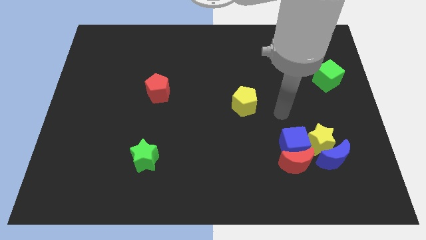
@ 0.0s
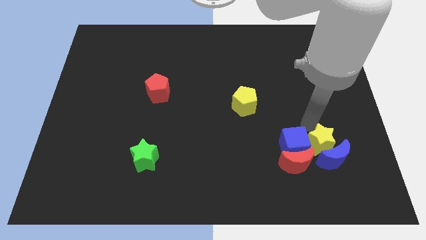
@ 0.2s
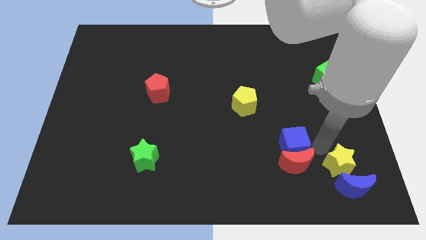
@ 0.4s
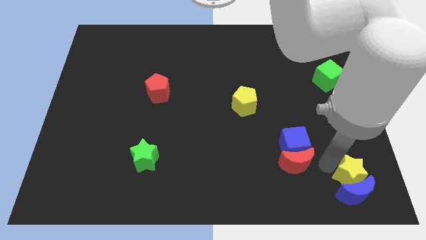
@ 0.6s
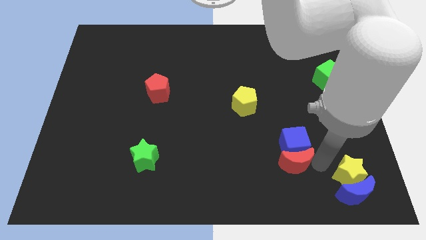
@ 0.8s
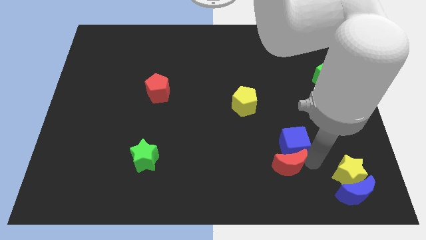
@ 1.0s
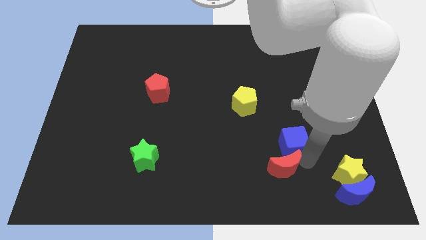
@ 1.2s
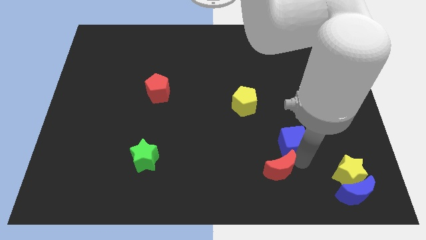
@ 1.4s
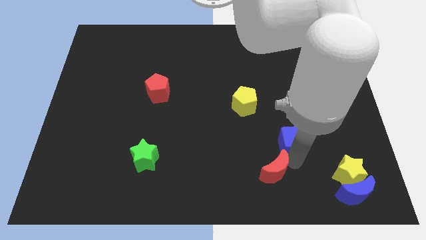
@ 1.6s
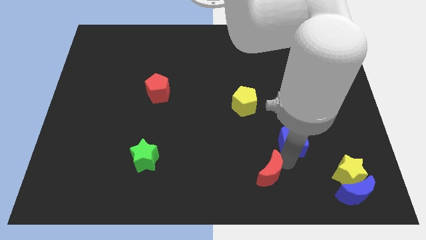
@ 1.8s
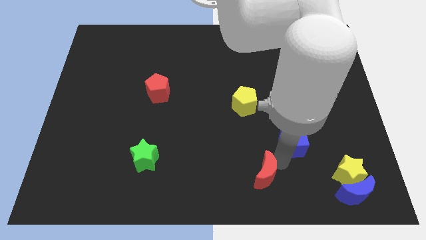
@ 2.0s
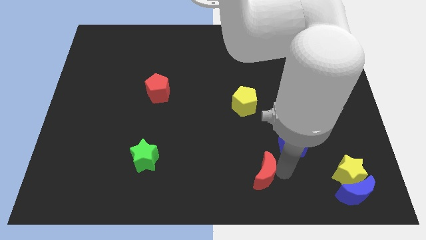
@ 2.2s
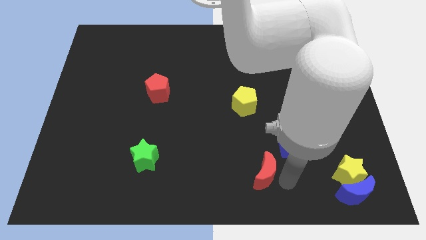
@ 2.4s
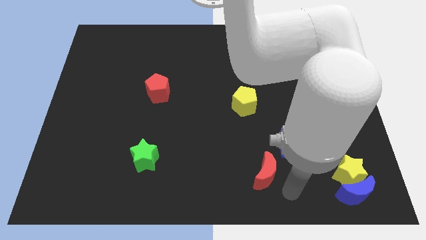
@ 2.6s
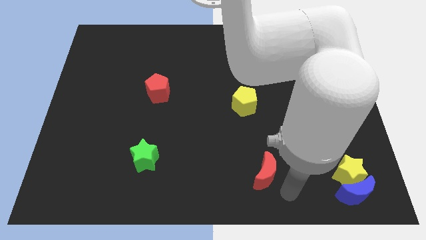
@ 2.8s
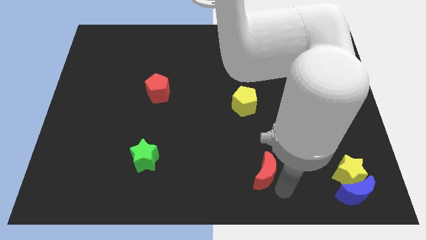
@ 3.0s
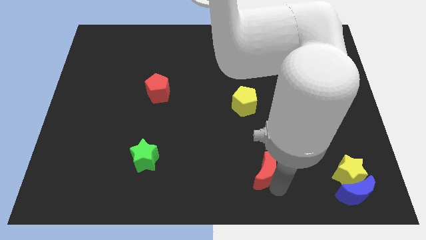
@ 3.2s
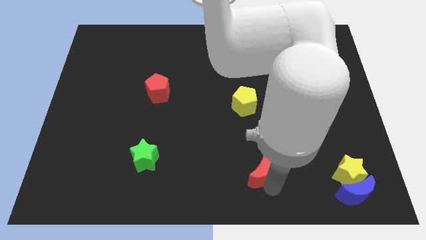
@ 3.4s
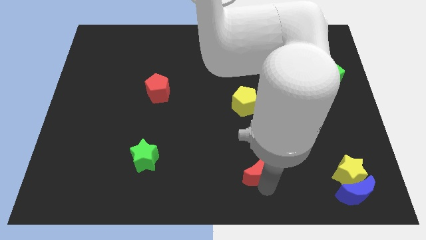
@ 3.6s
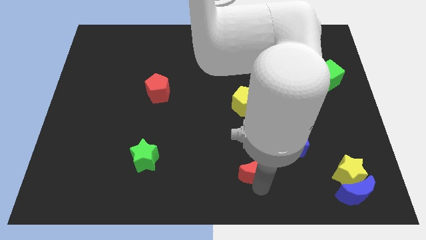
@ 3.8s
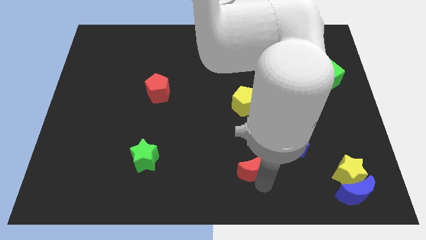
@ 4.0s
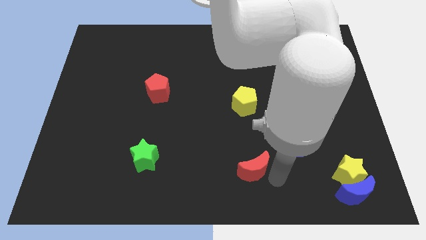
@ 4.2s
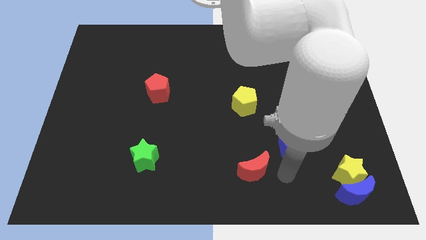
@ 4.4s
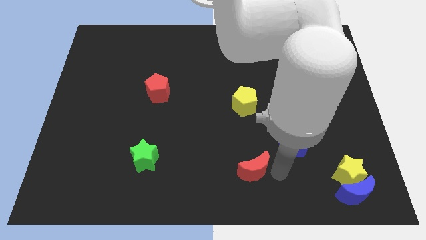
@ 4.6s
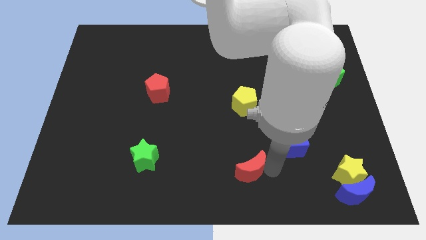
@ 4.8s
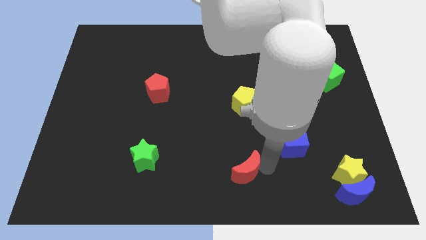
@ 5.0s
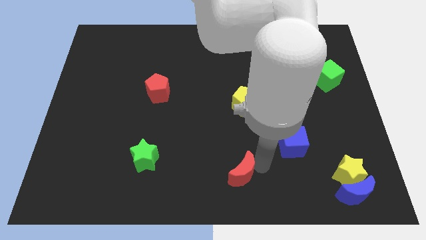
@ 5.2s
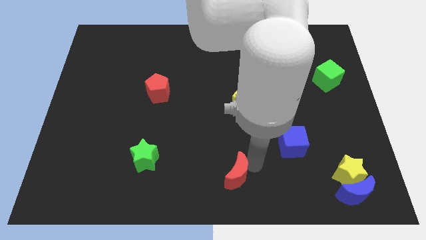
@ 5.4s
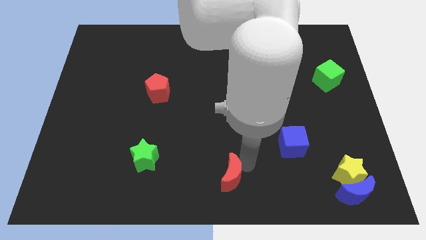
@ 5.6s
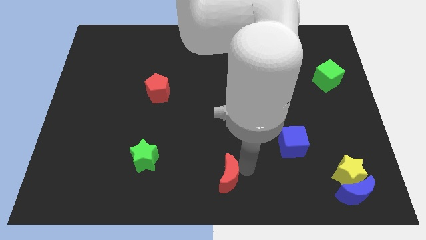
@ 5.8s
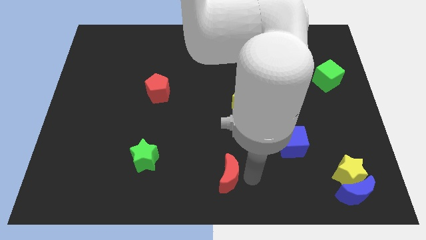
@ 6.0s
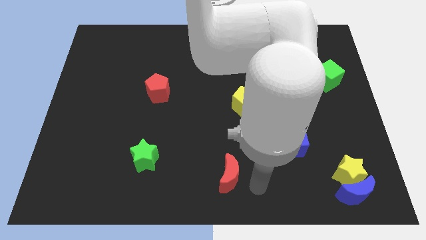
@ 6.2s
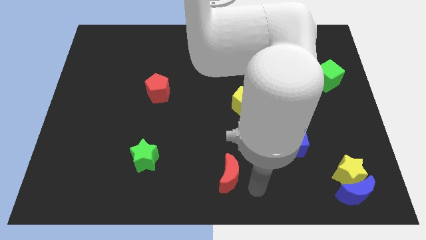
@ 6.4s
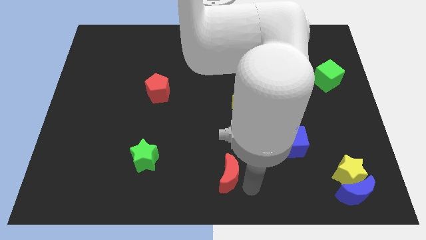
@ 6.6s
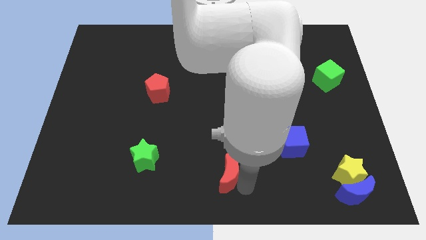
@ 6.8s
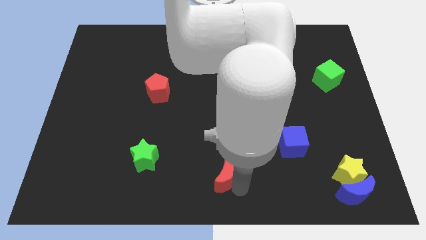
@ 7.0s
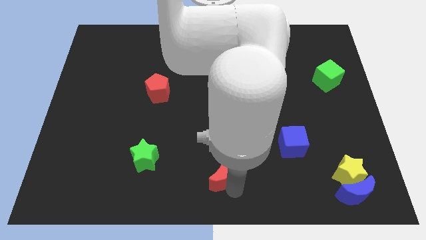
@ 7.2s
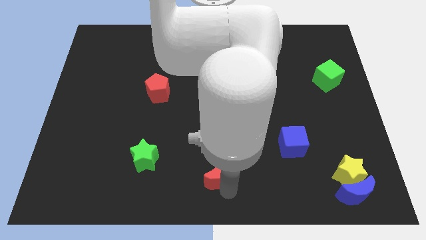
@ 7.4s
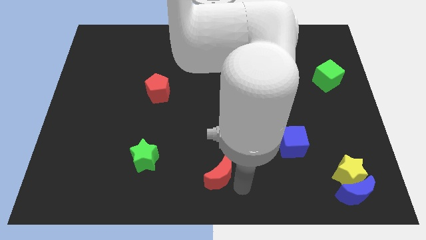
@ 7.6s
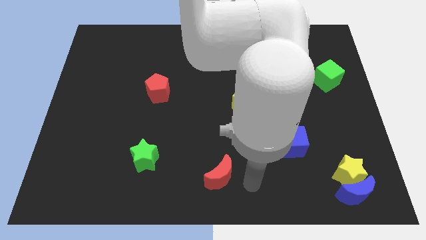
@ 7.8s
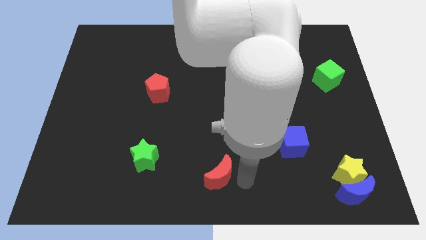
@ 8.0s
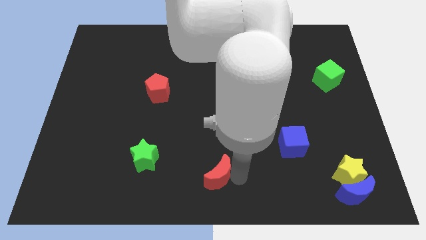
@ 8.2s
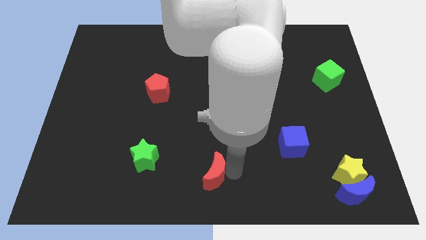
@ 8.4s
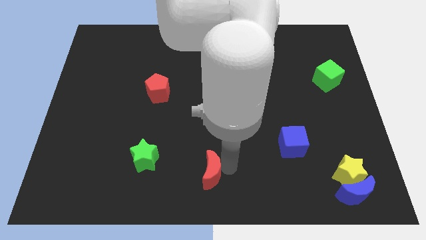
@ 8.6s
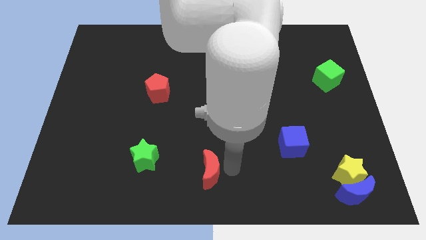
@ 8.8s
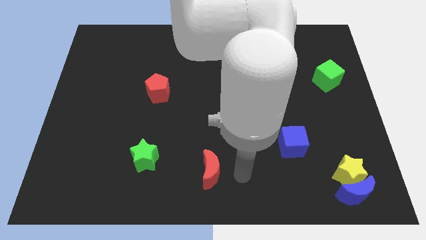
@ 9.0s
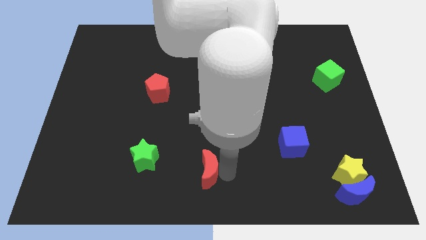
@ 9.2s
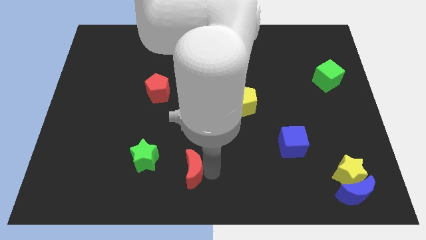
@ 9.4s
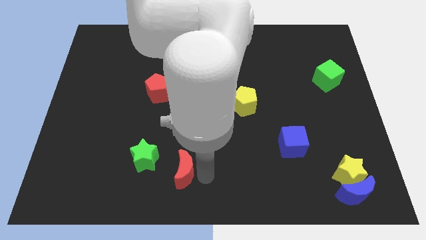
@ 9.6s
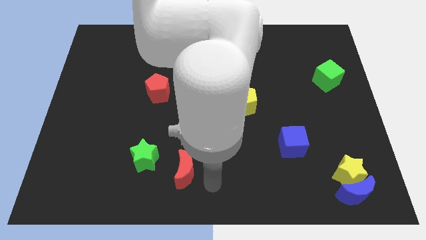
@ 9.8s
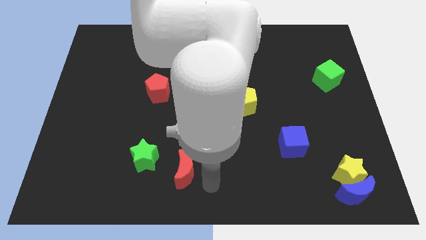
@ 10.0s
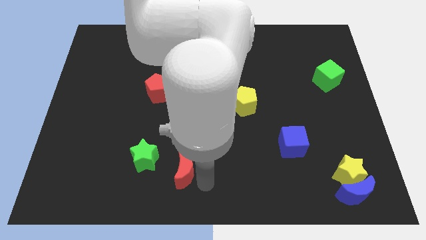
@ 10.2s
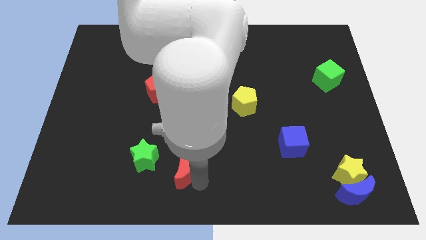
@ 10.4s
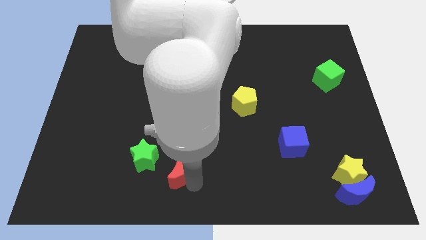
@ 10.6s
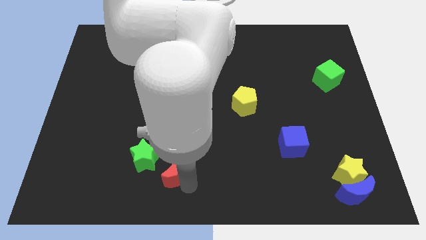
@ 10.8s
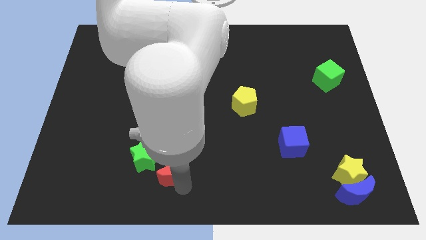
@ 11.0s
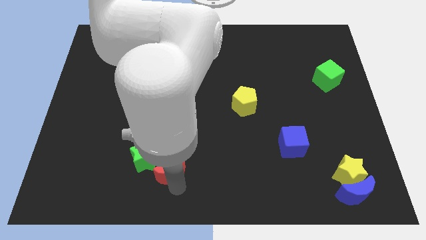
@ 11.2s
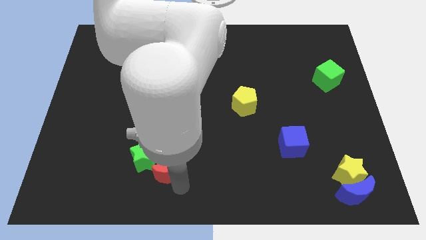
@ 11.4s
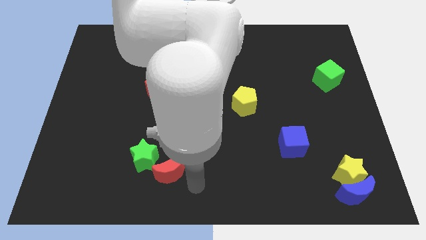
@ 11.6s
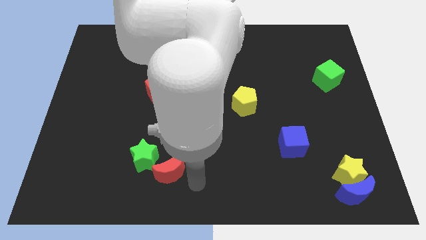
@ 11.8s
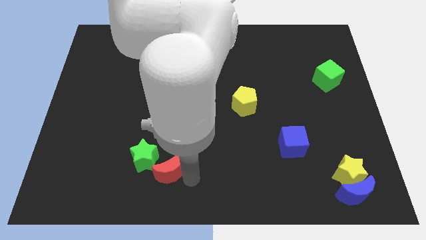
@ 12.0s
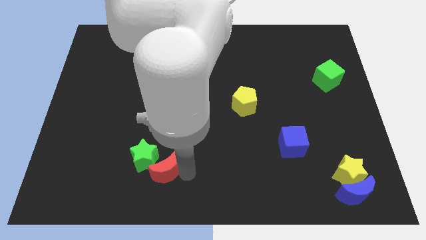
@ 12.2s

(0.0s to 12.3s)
move the red moon towards the green star

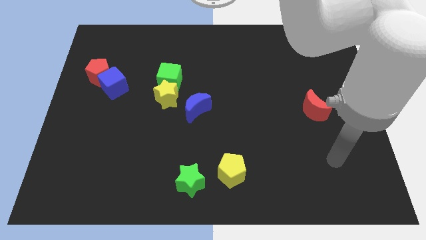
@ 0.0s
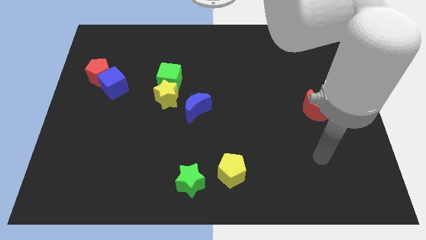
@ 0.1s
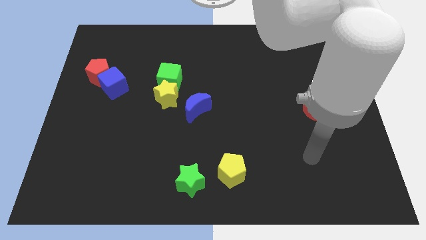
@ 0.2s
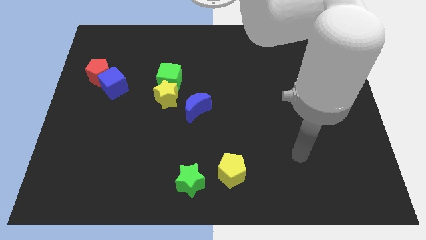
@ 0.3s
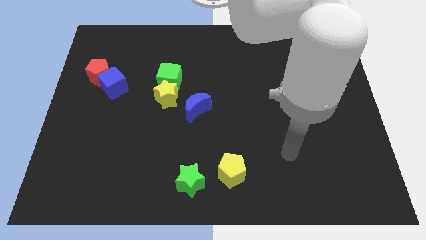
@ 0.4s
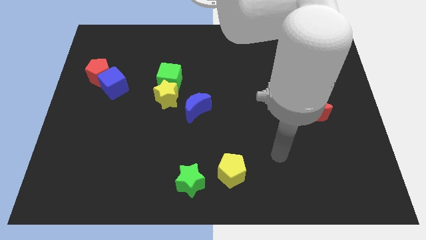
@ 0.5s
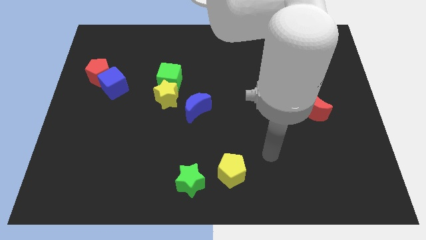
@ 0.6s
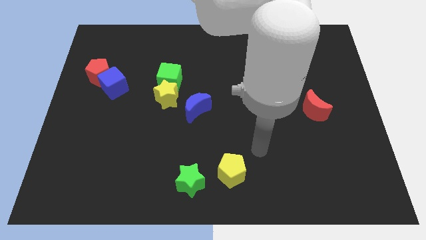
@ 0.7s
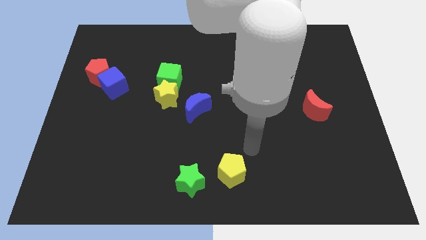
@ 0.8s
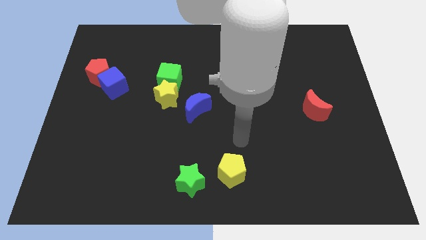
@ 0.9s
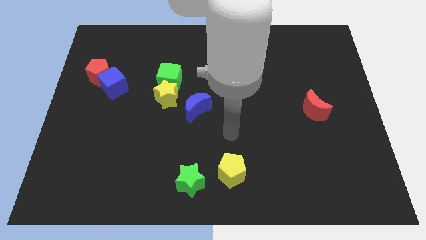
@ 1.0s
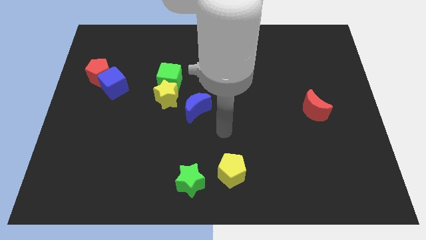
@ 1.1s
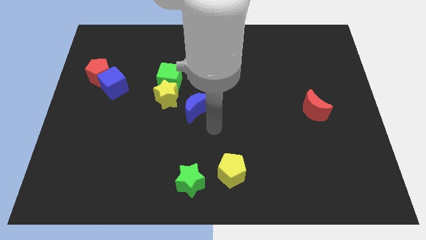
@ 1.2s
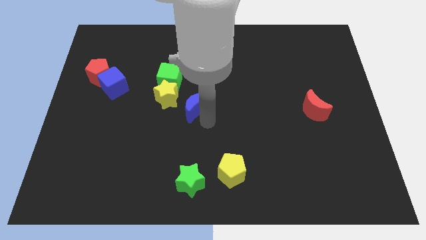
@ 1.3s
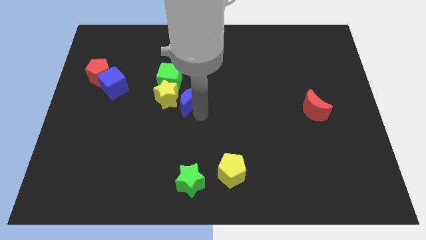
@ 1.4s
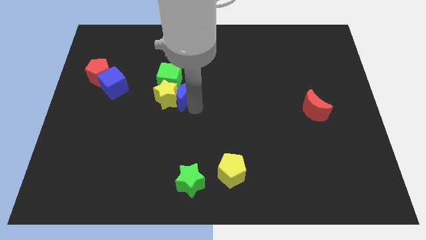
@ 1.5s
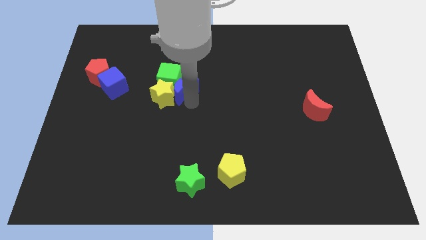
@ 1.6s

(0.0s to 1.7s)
put the blue moon next to the green cube
